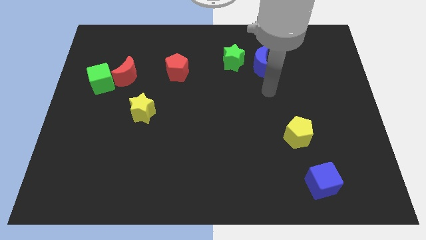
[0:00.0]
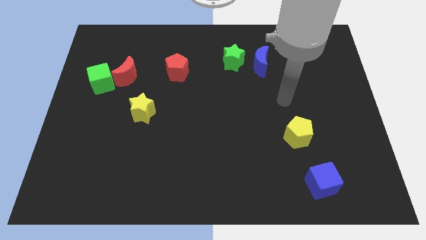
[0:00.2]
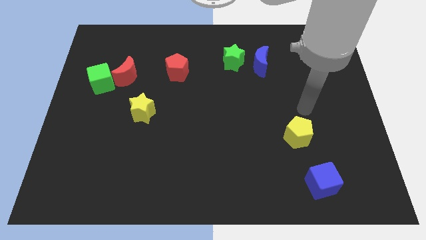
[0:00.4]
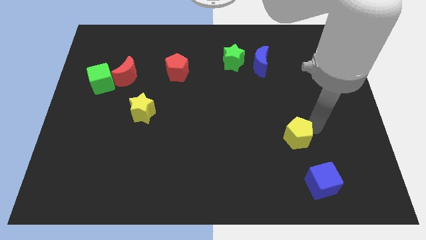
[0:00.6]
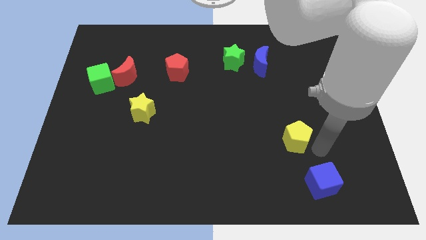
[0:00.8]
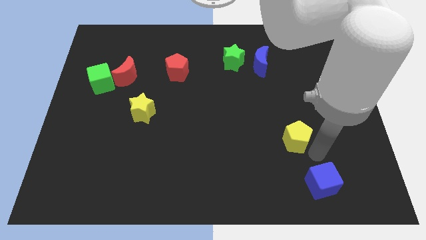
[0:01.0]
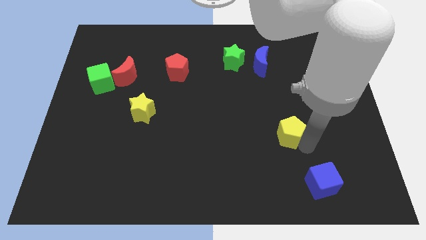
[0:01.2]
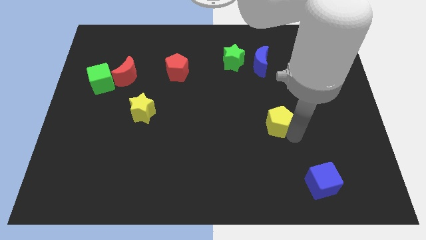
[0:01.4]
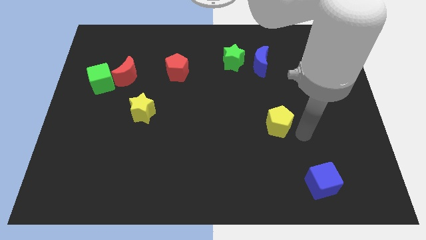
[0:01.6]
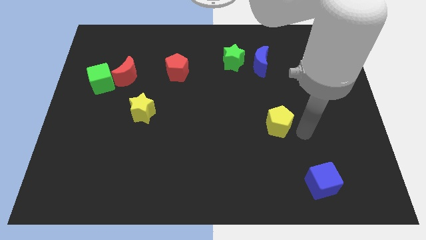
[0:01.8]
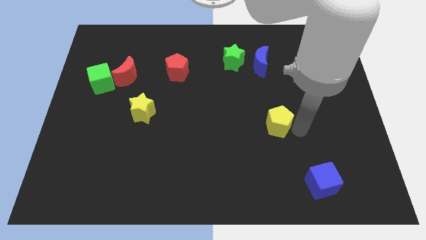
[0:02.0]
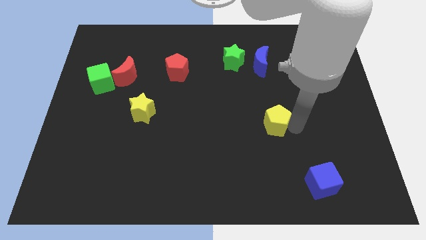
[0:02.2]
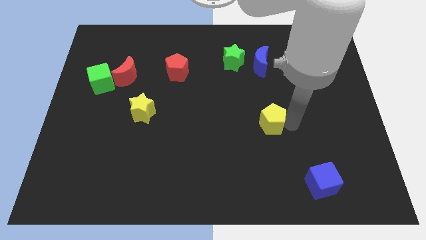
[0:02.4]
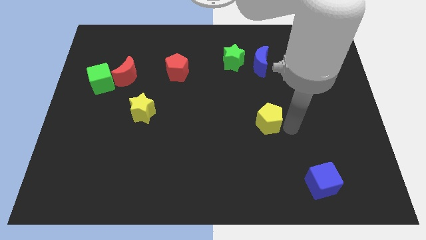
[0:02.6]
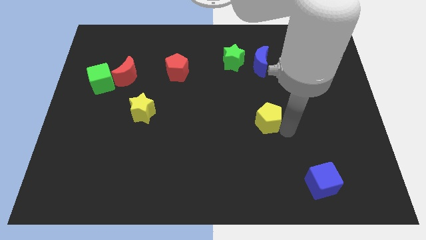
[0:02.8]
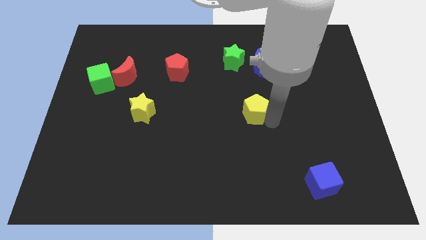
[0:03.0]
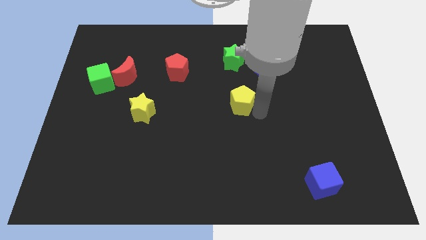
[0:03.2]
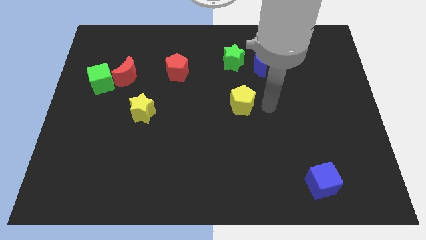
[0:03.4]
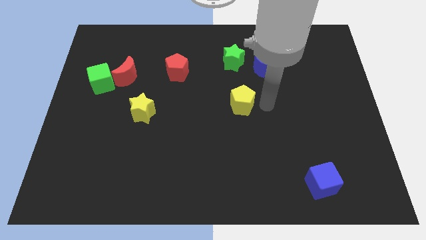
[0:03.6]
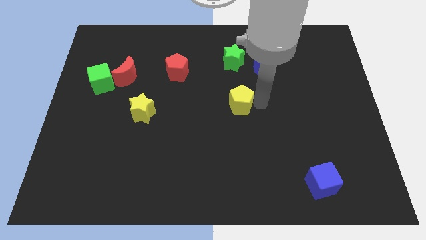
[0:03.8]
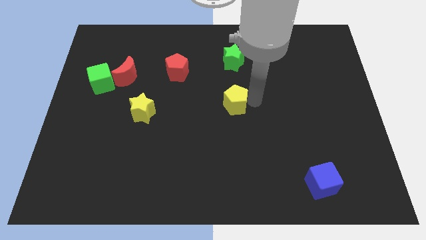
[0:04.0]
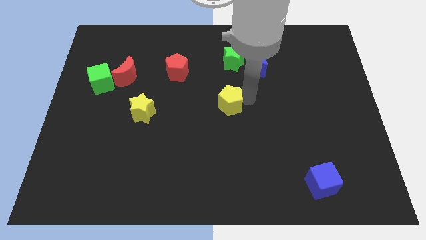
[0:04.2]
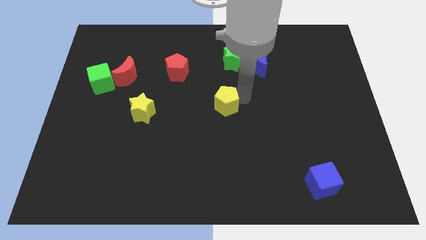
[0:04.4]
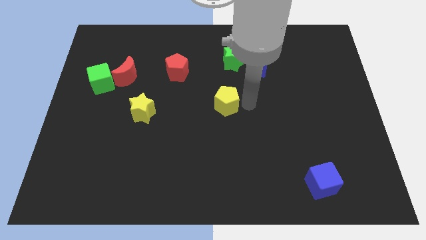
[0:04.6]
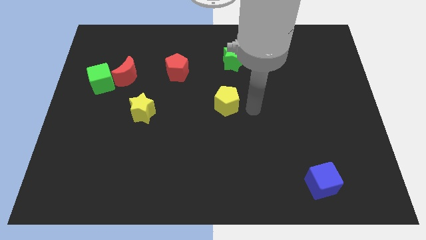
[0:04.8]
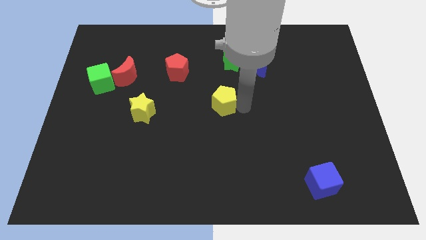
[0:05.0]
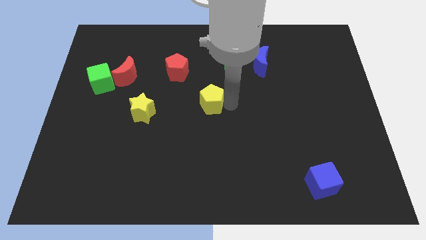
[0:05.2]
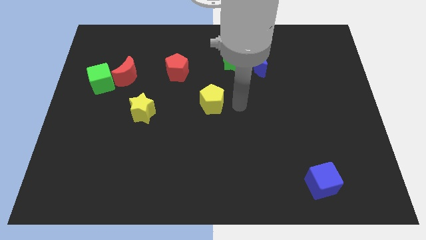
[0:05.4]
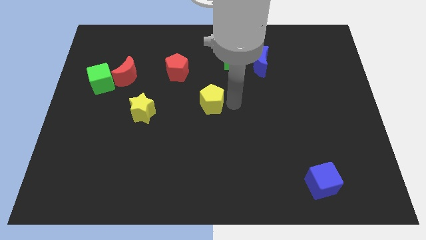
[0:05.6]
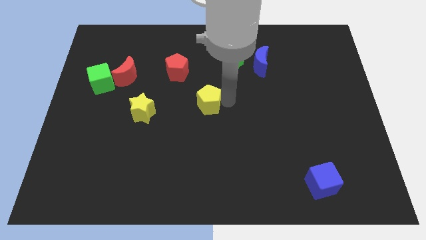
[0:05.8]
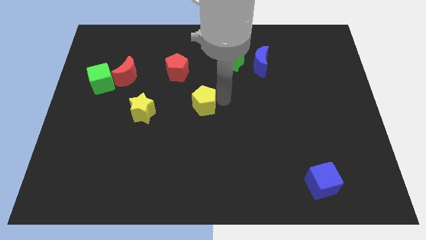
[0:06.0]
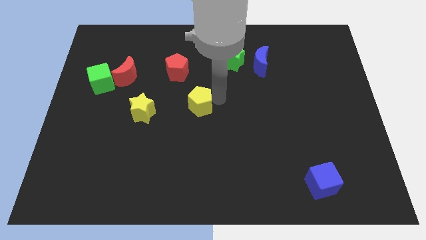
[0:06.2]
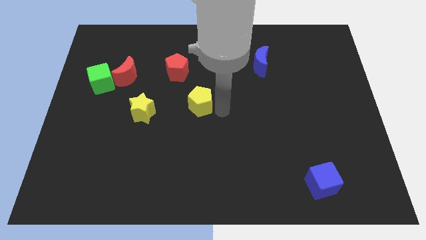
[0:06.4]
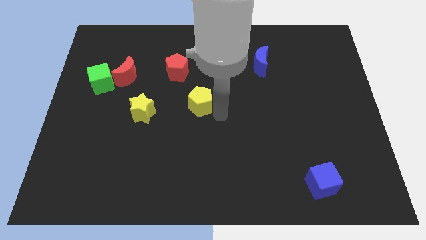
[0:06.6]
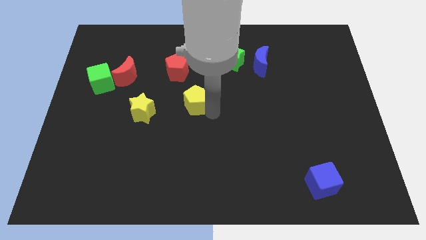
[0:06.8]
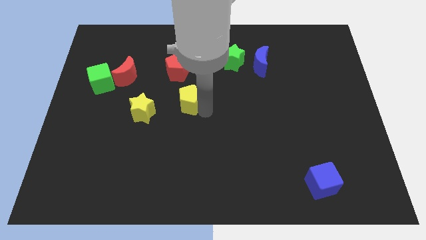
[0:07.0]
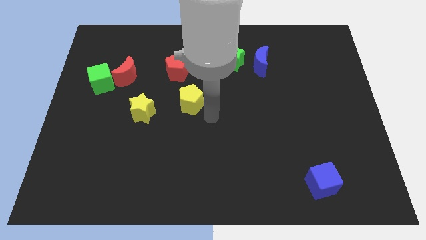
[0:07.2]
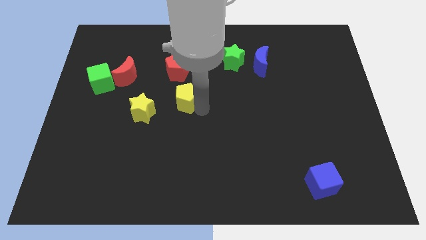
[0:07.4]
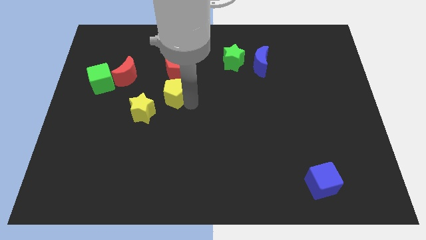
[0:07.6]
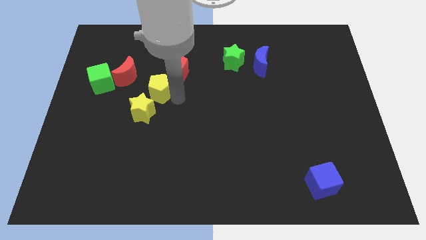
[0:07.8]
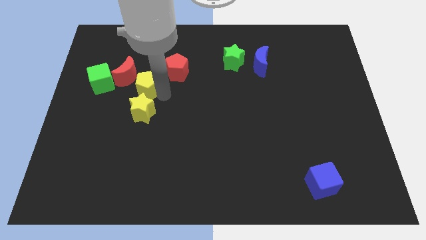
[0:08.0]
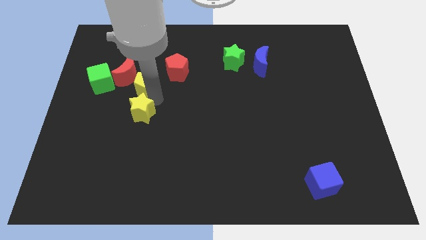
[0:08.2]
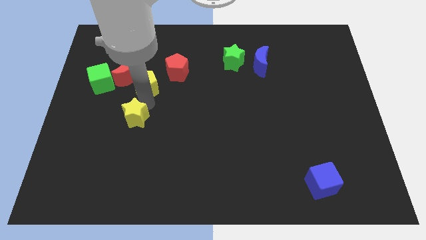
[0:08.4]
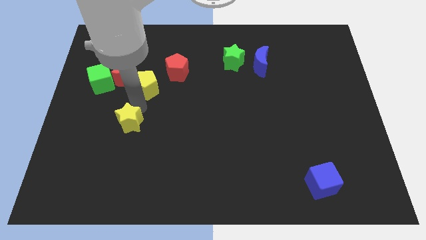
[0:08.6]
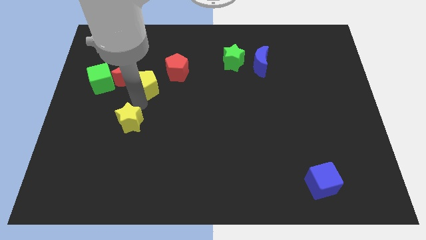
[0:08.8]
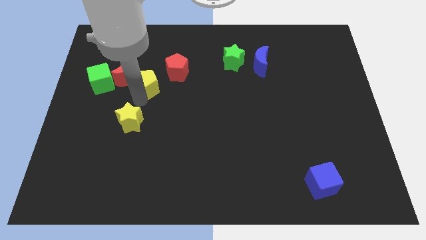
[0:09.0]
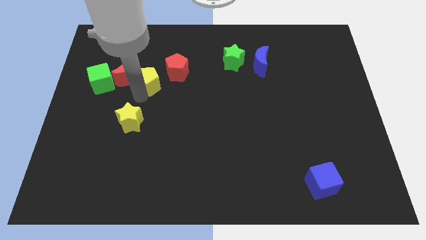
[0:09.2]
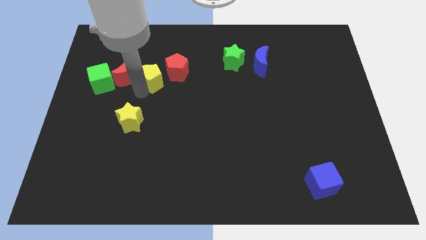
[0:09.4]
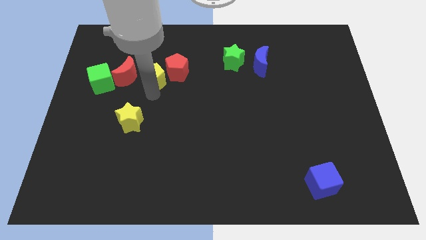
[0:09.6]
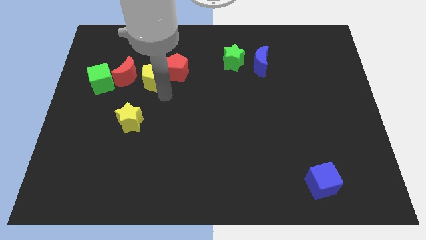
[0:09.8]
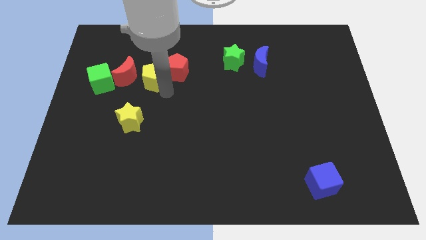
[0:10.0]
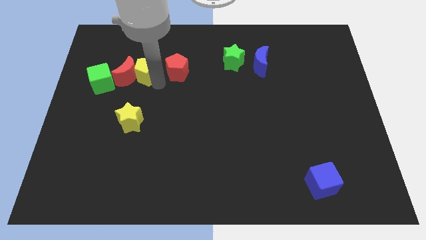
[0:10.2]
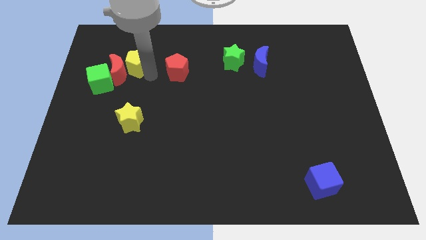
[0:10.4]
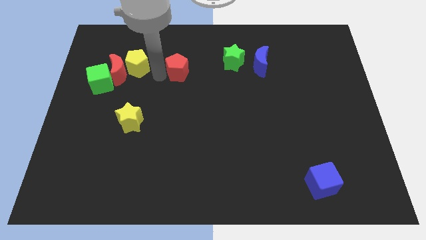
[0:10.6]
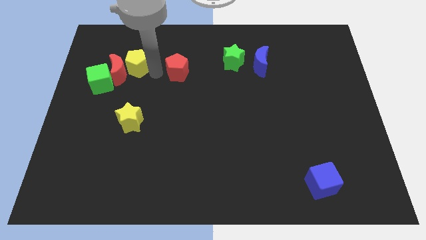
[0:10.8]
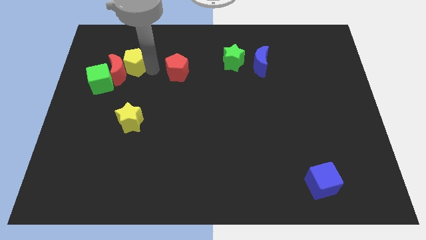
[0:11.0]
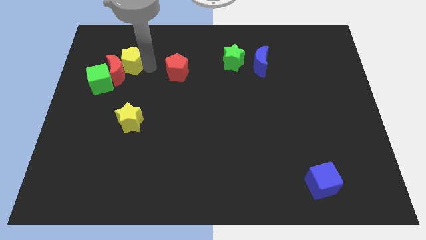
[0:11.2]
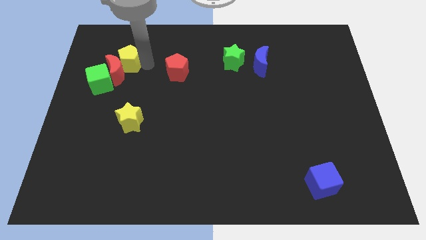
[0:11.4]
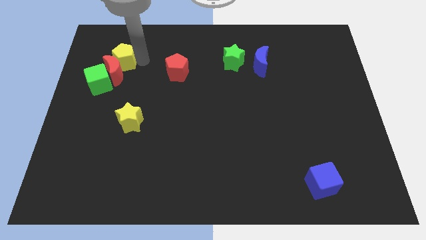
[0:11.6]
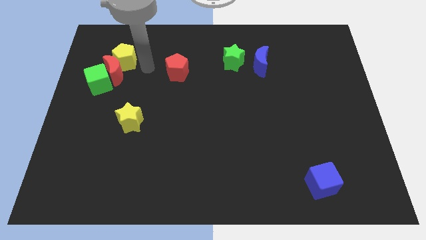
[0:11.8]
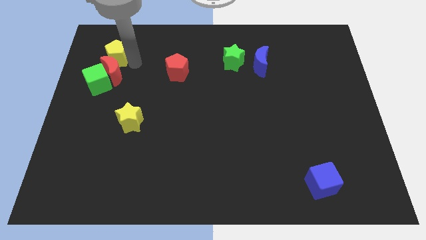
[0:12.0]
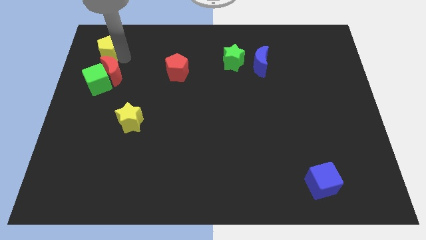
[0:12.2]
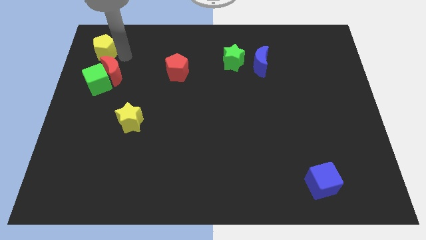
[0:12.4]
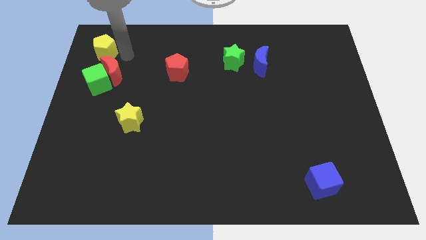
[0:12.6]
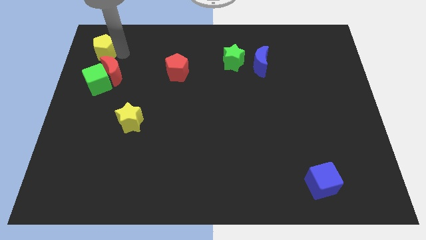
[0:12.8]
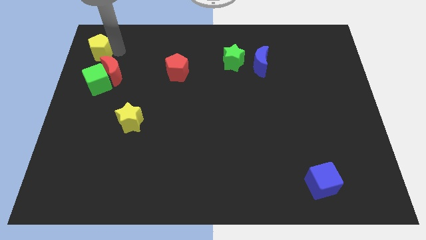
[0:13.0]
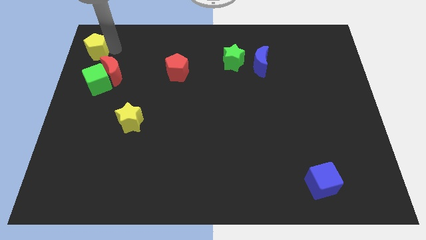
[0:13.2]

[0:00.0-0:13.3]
put the yellow pentagon to the upper left corner
